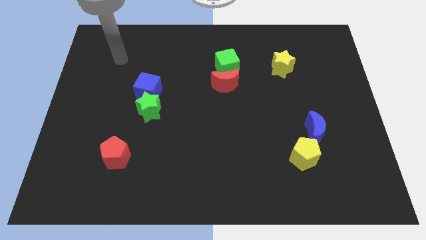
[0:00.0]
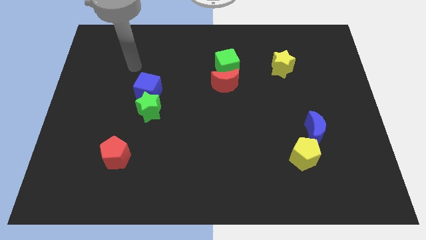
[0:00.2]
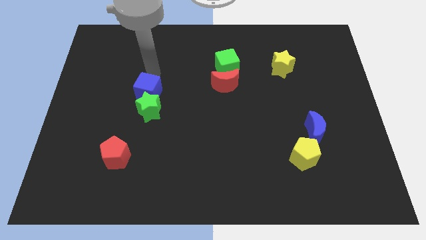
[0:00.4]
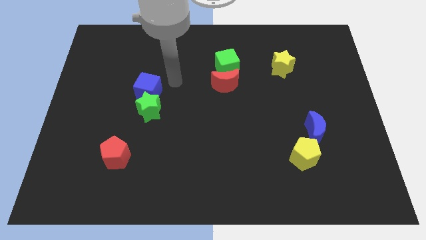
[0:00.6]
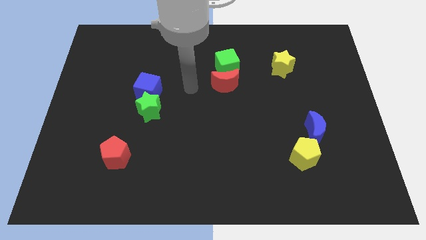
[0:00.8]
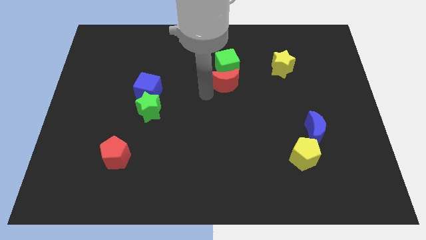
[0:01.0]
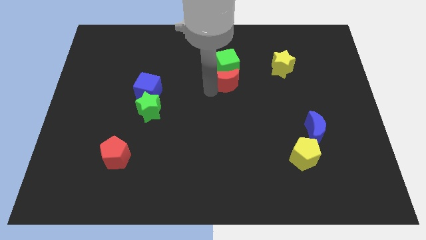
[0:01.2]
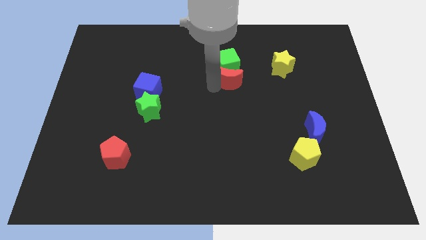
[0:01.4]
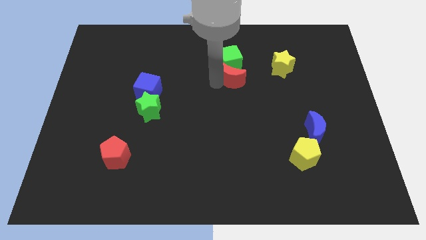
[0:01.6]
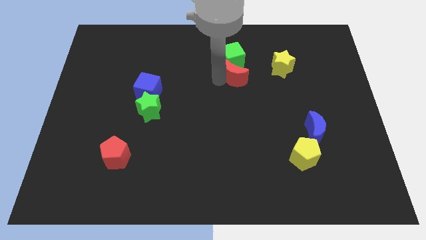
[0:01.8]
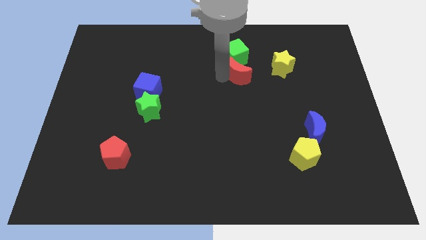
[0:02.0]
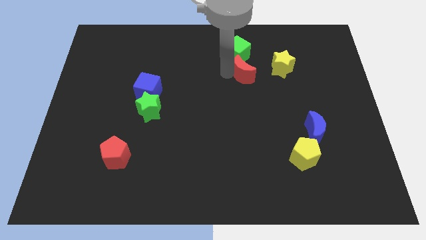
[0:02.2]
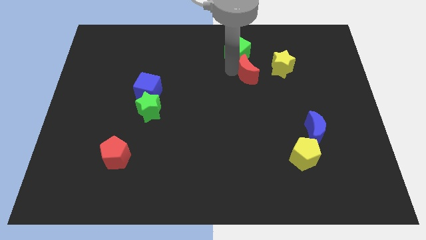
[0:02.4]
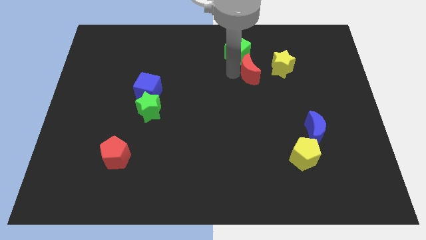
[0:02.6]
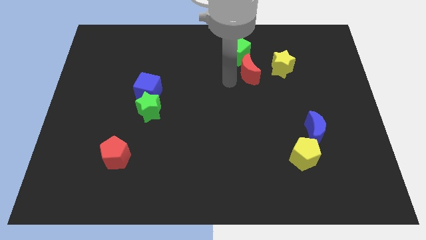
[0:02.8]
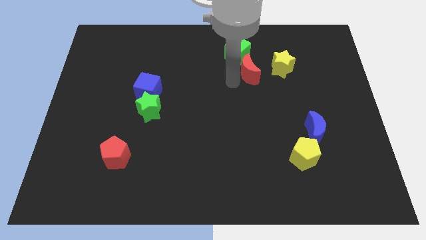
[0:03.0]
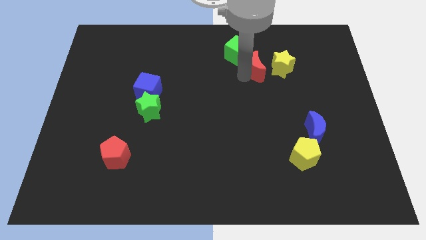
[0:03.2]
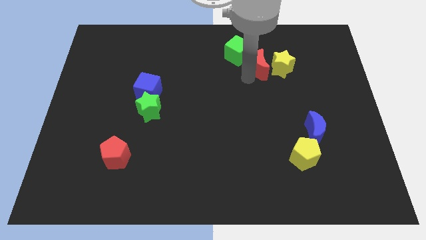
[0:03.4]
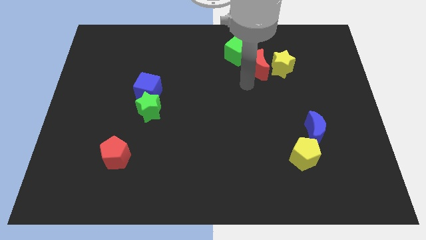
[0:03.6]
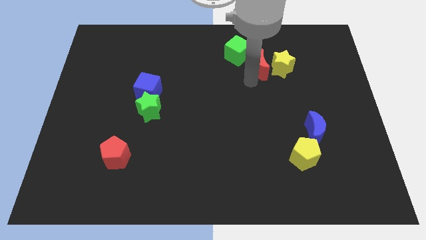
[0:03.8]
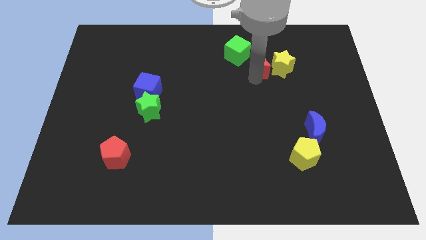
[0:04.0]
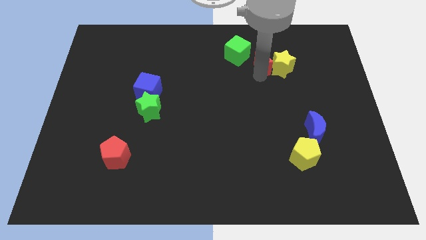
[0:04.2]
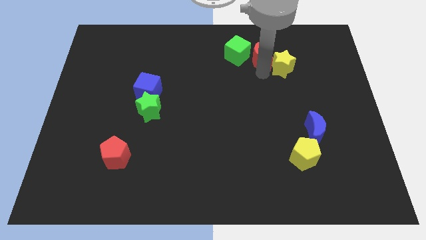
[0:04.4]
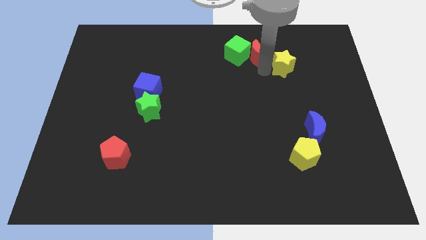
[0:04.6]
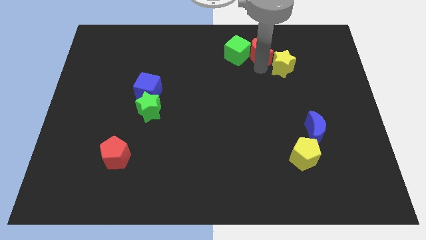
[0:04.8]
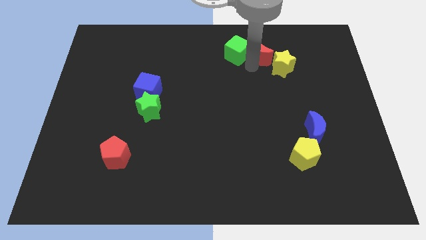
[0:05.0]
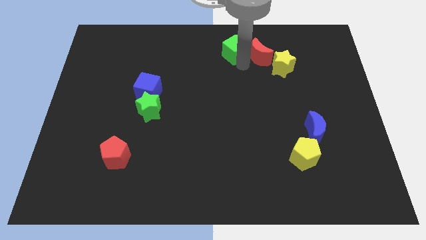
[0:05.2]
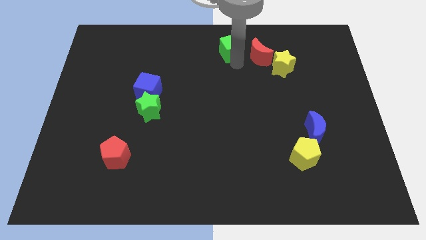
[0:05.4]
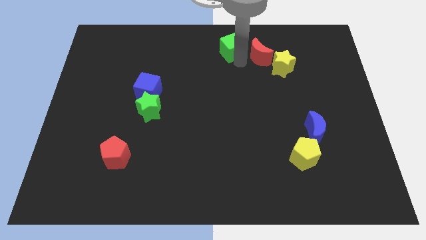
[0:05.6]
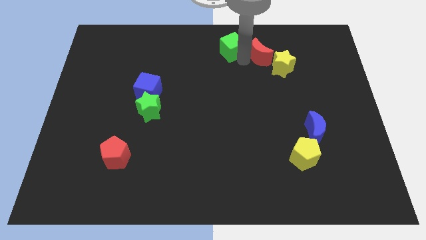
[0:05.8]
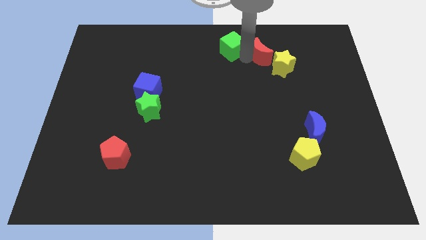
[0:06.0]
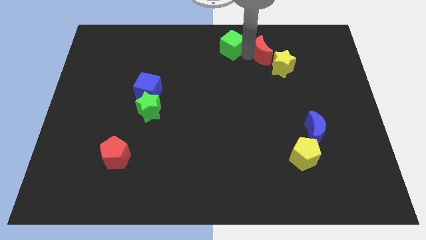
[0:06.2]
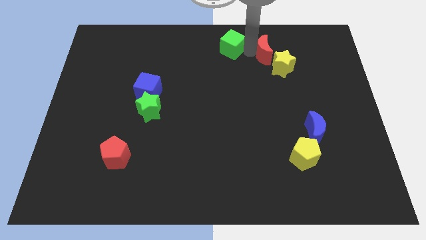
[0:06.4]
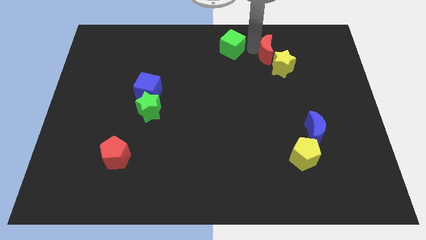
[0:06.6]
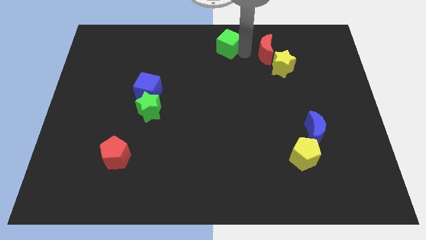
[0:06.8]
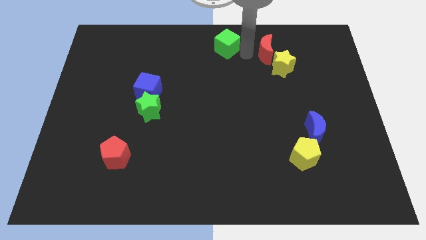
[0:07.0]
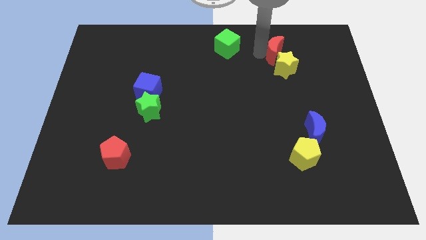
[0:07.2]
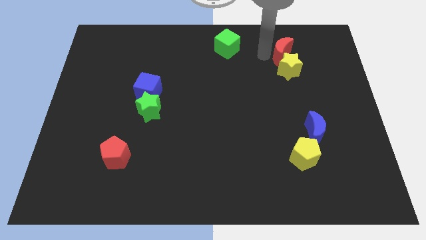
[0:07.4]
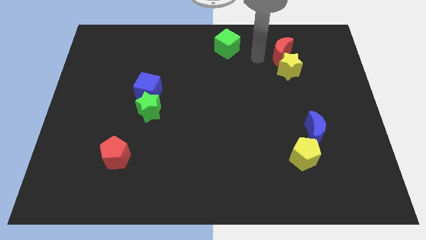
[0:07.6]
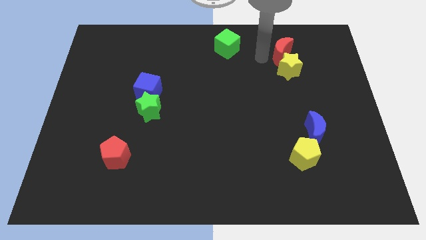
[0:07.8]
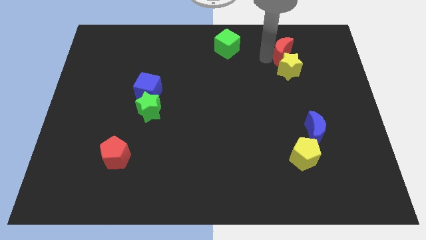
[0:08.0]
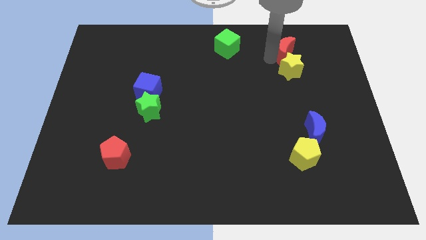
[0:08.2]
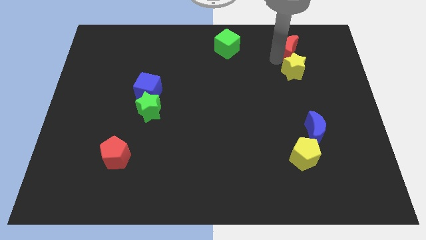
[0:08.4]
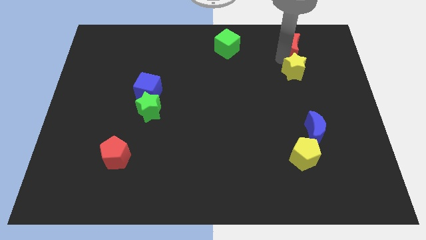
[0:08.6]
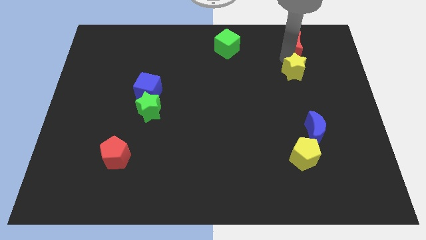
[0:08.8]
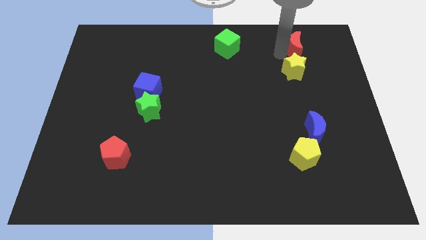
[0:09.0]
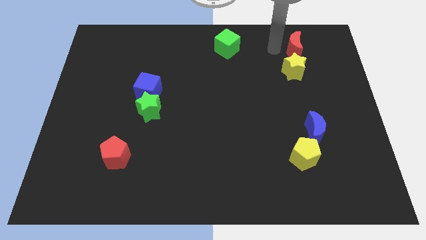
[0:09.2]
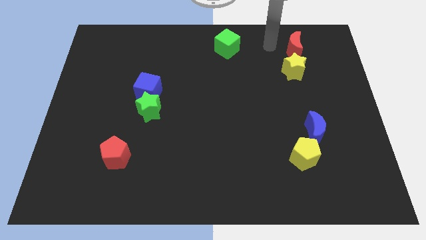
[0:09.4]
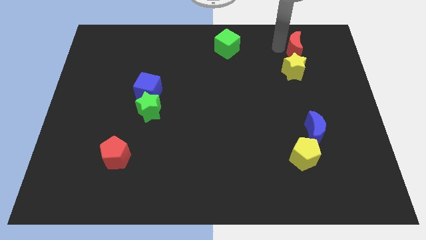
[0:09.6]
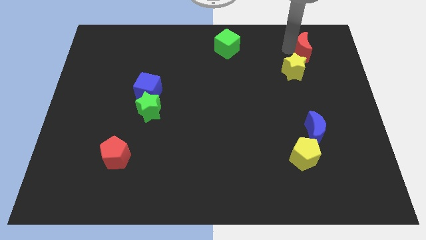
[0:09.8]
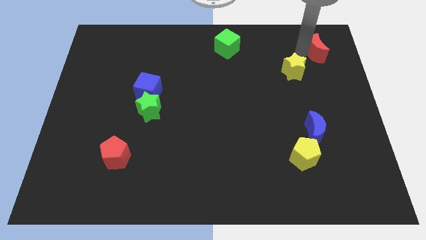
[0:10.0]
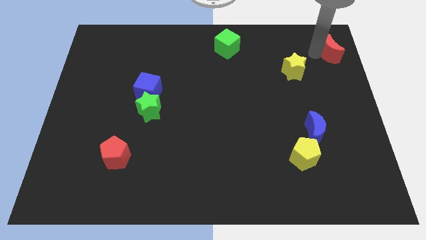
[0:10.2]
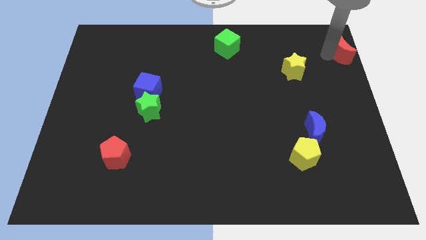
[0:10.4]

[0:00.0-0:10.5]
slide the red moon to the upper right corner

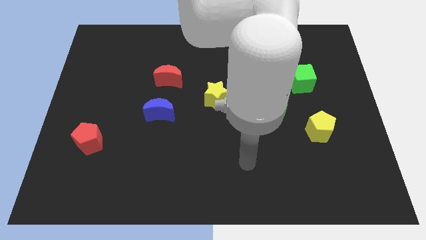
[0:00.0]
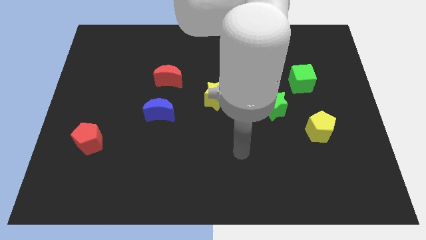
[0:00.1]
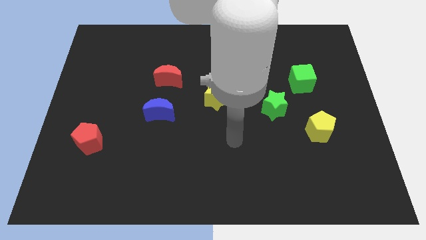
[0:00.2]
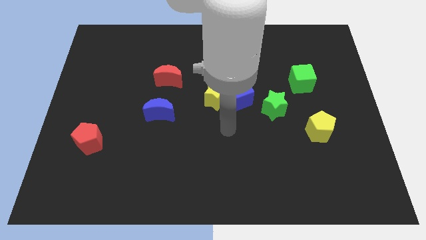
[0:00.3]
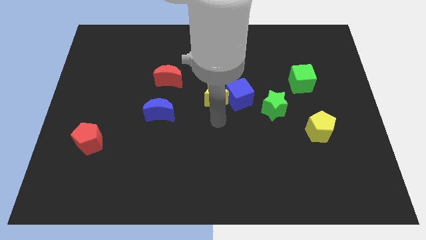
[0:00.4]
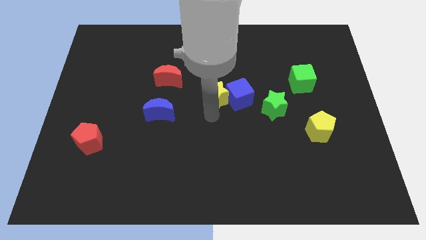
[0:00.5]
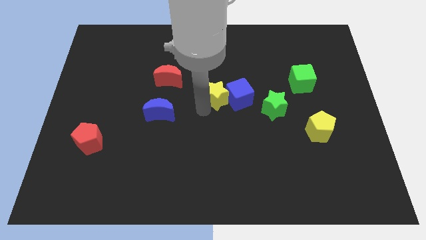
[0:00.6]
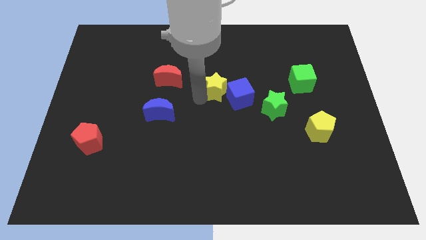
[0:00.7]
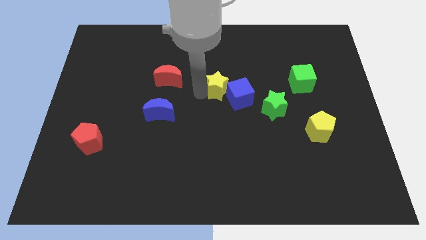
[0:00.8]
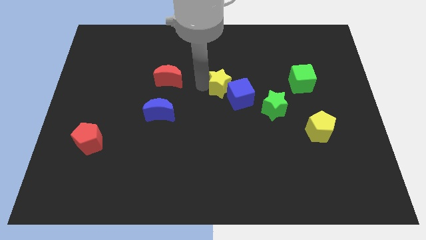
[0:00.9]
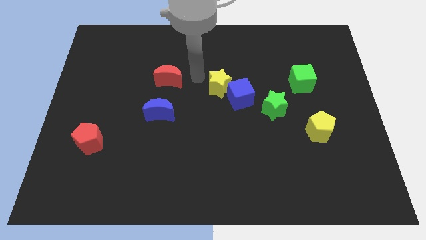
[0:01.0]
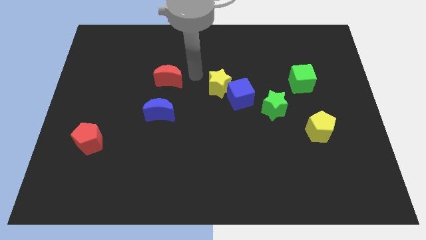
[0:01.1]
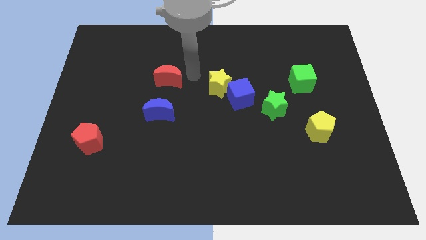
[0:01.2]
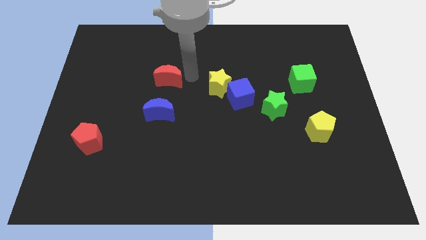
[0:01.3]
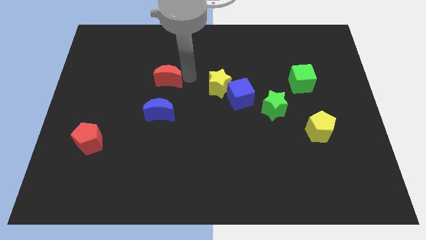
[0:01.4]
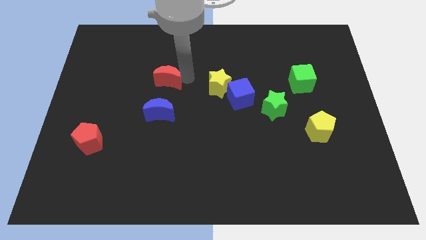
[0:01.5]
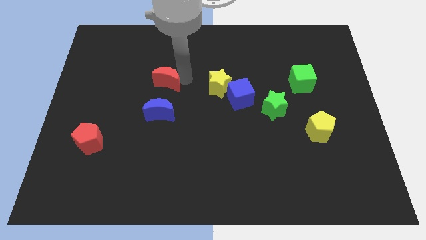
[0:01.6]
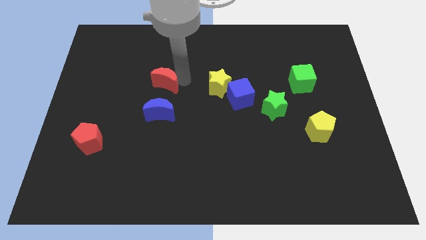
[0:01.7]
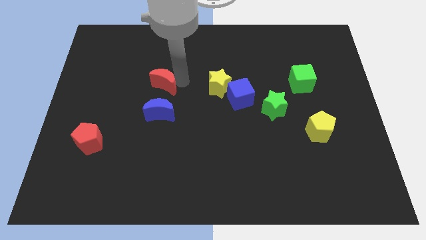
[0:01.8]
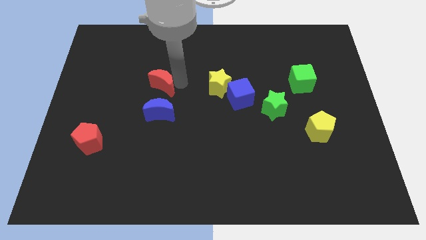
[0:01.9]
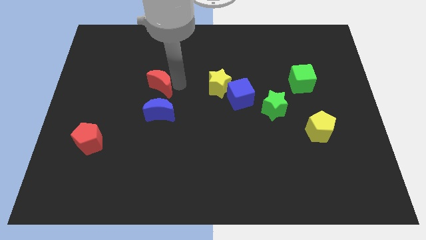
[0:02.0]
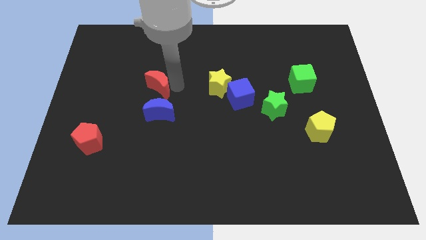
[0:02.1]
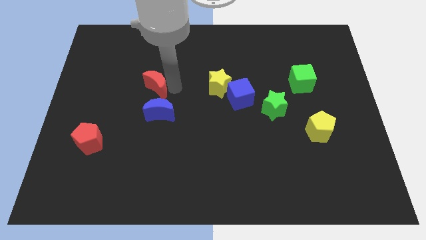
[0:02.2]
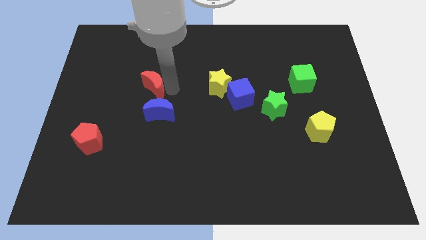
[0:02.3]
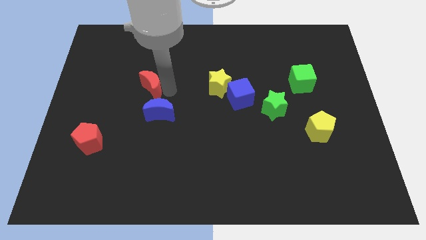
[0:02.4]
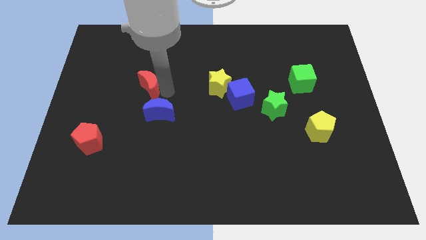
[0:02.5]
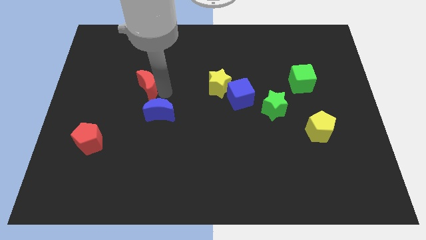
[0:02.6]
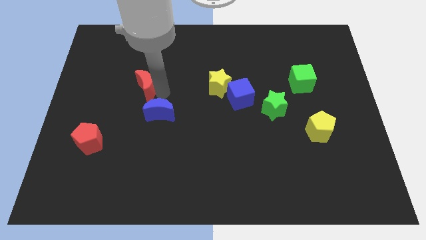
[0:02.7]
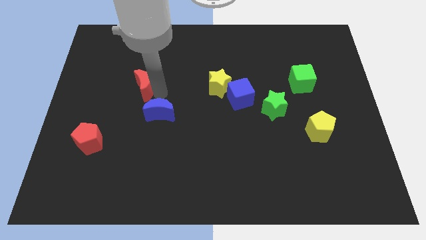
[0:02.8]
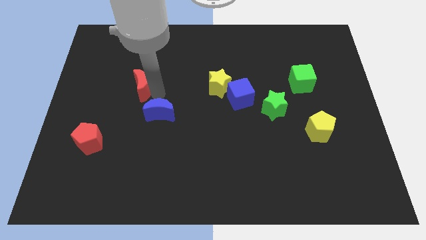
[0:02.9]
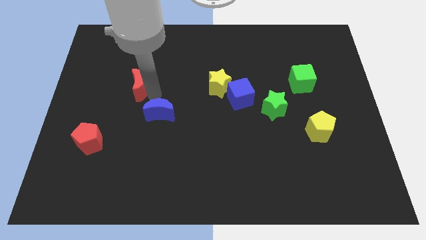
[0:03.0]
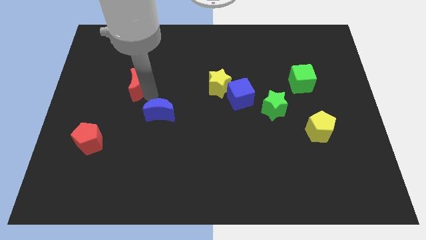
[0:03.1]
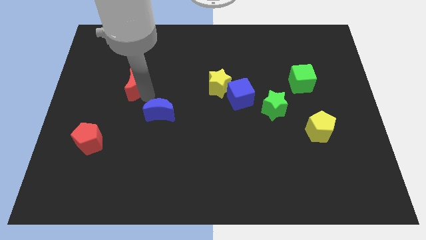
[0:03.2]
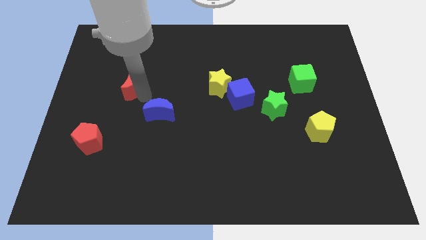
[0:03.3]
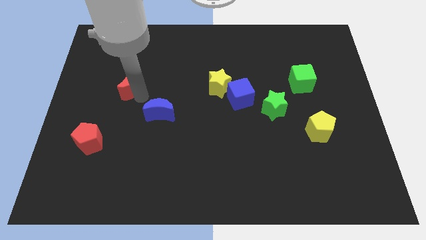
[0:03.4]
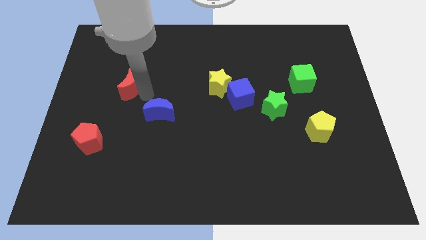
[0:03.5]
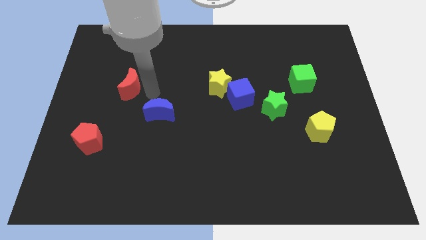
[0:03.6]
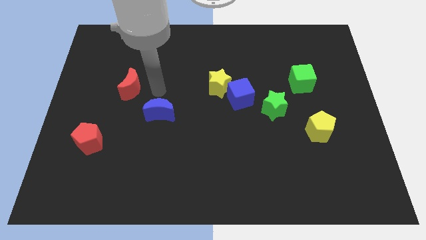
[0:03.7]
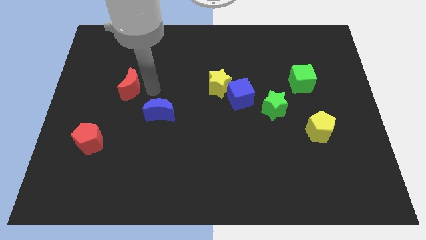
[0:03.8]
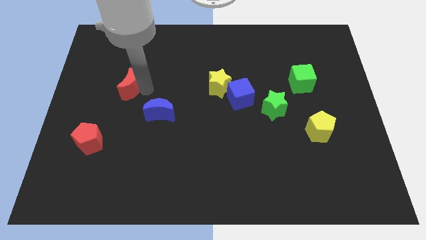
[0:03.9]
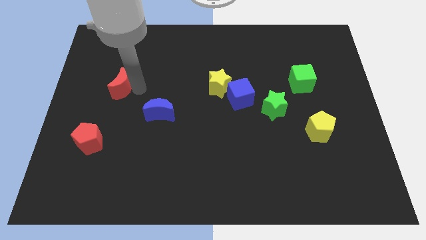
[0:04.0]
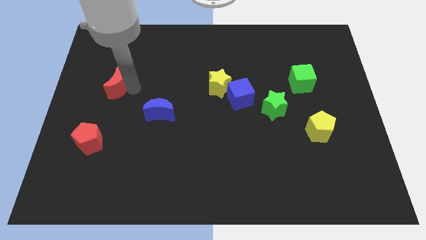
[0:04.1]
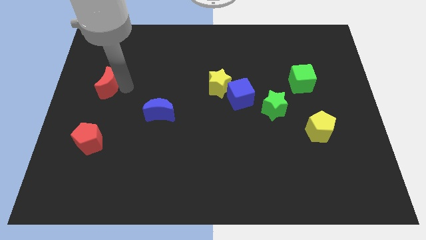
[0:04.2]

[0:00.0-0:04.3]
slide the red moon to the center left
